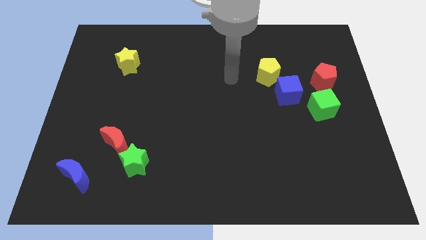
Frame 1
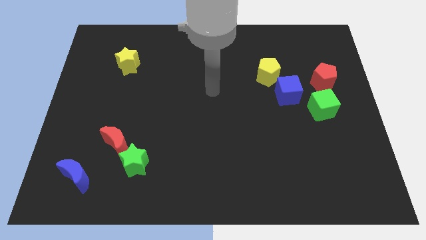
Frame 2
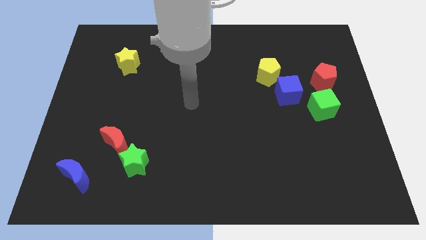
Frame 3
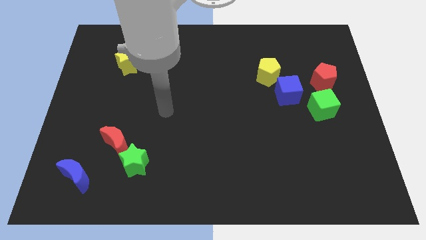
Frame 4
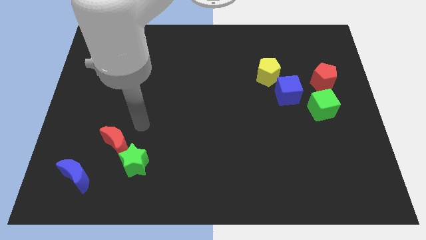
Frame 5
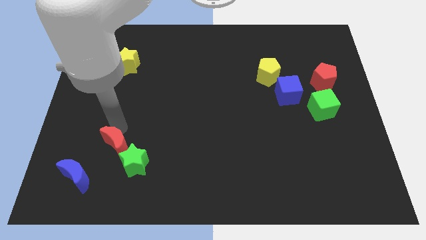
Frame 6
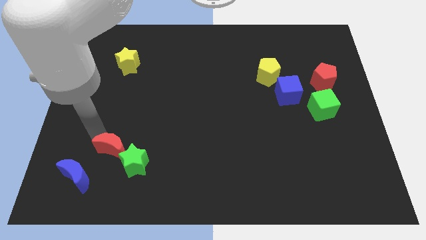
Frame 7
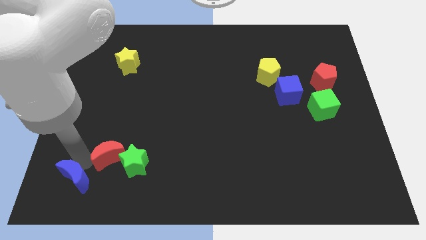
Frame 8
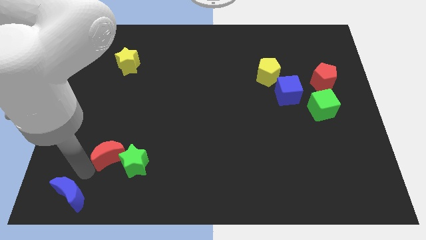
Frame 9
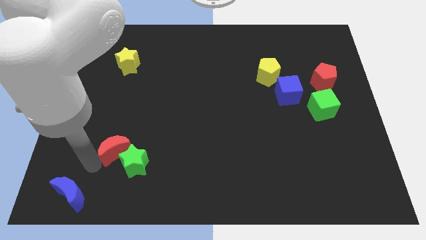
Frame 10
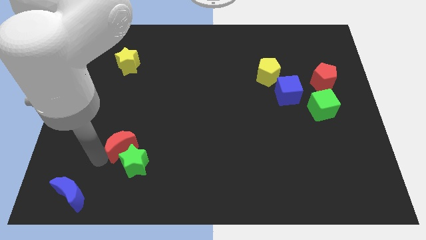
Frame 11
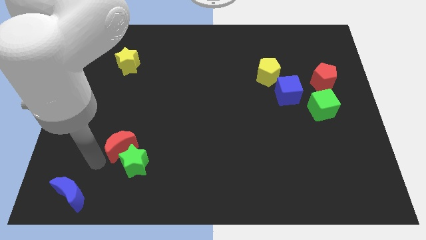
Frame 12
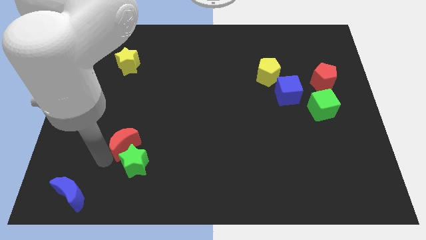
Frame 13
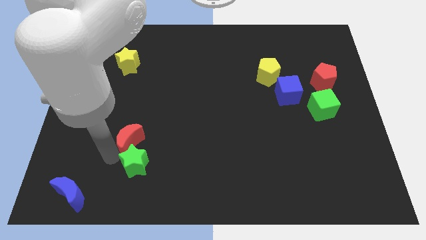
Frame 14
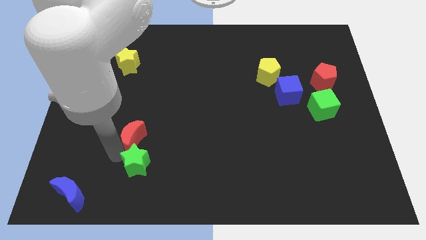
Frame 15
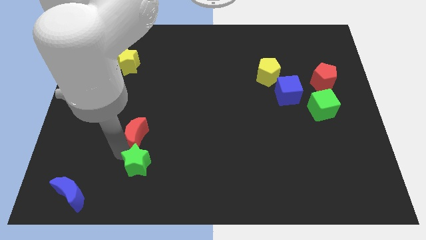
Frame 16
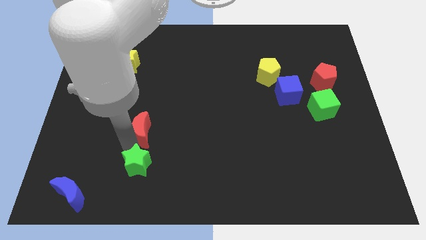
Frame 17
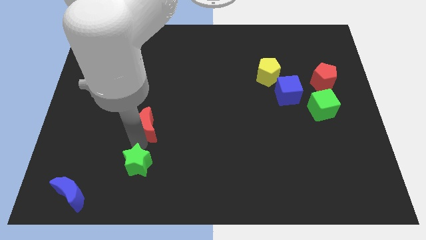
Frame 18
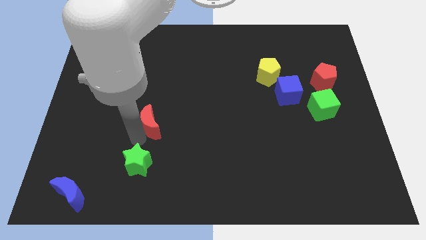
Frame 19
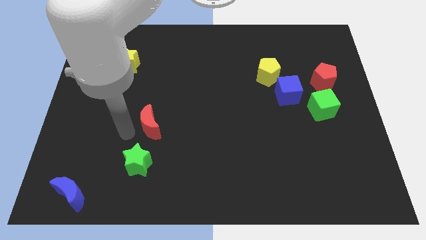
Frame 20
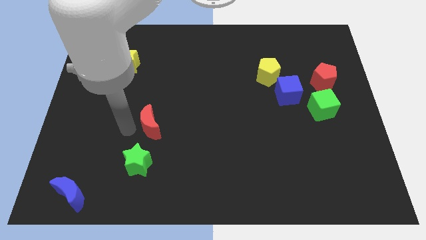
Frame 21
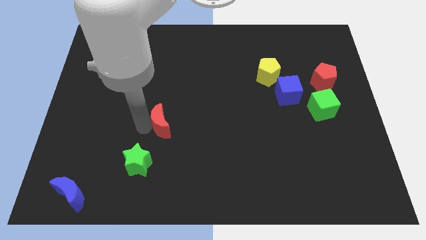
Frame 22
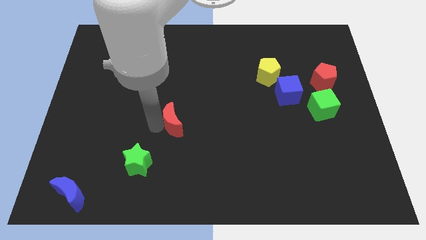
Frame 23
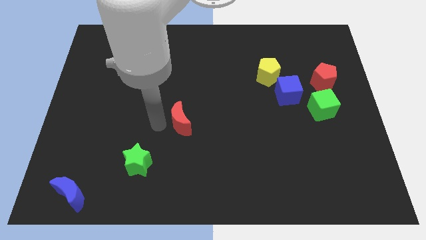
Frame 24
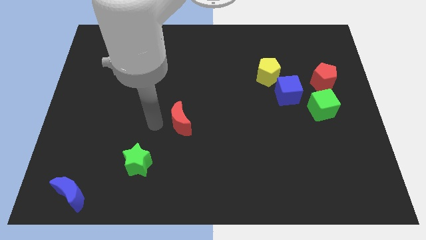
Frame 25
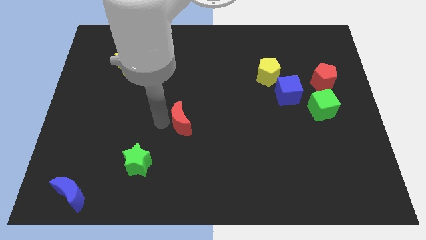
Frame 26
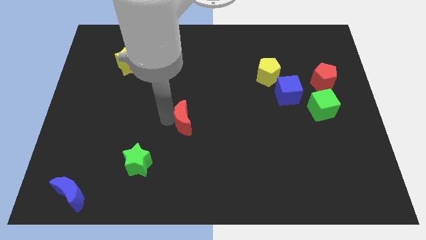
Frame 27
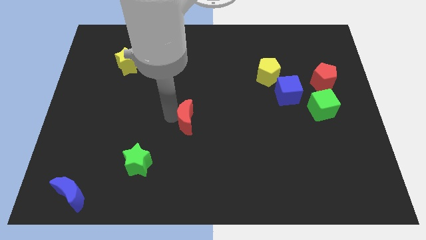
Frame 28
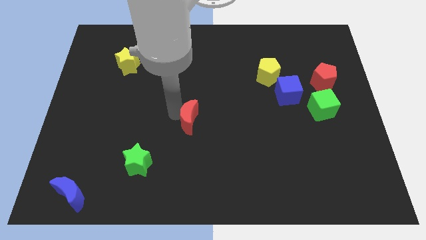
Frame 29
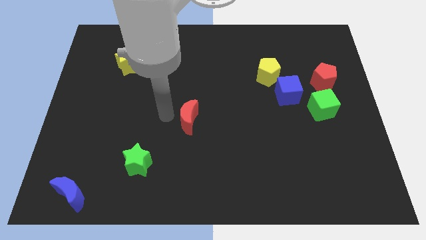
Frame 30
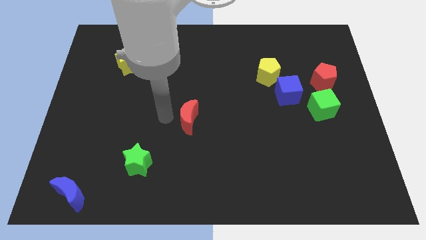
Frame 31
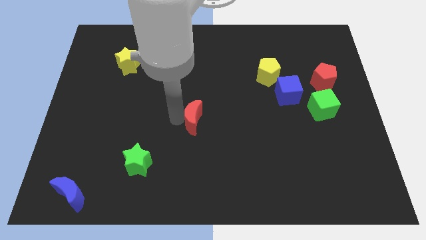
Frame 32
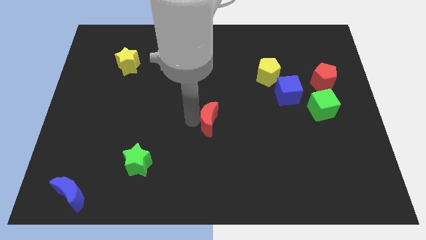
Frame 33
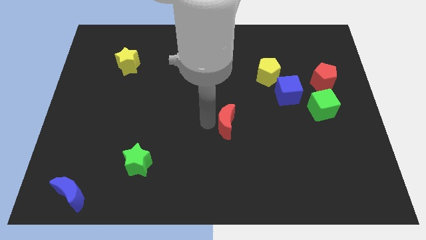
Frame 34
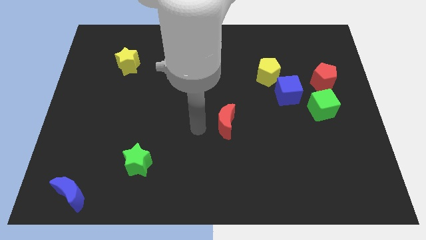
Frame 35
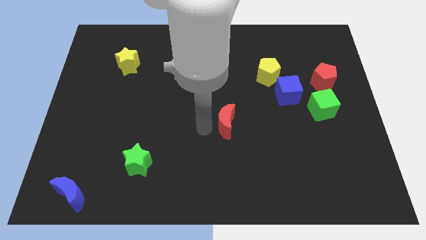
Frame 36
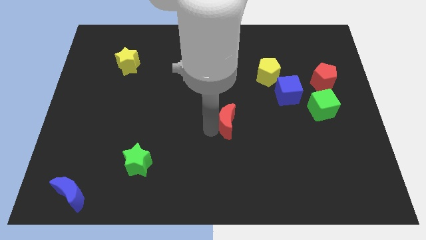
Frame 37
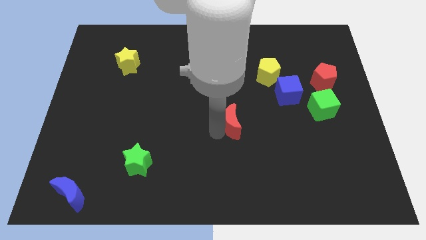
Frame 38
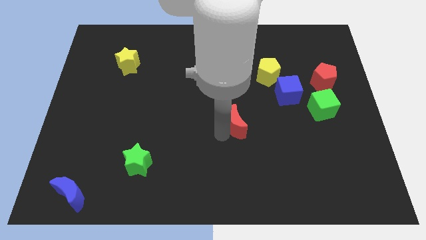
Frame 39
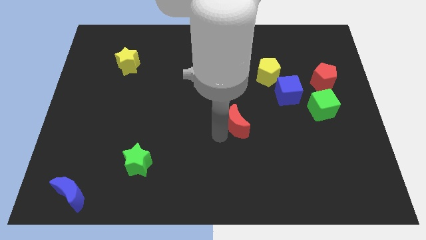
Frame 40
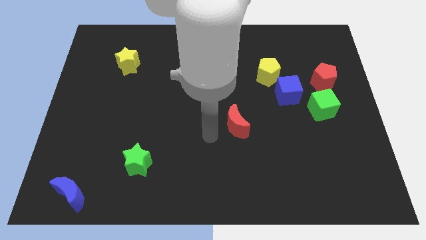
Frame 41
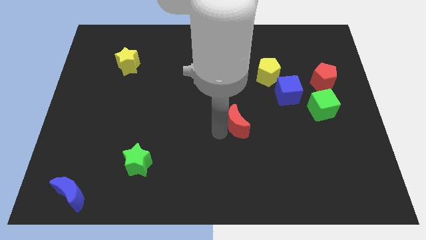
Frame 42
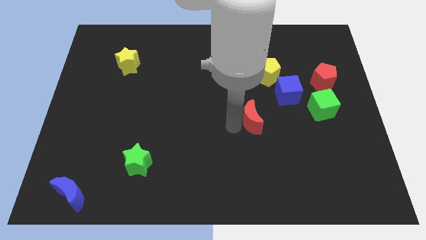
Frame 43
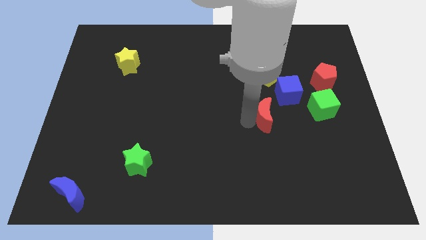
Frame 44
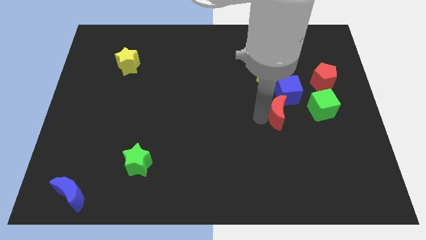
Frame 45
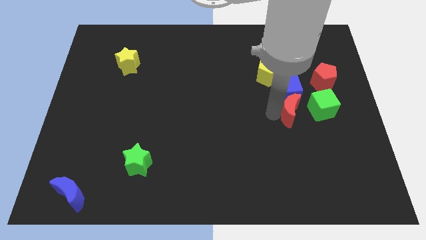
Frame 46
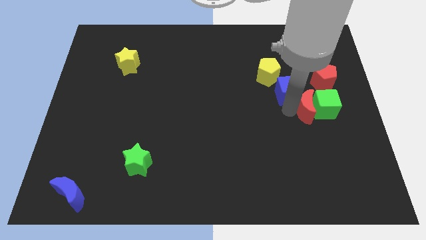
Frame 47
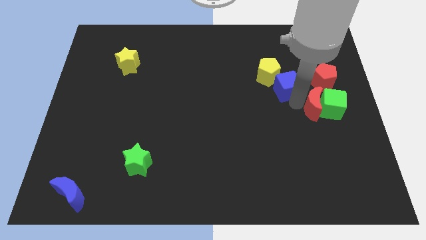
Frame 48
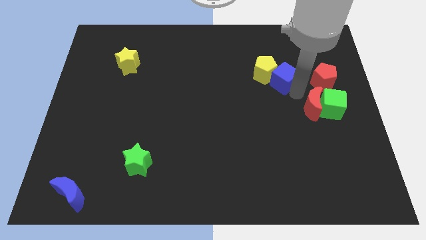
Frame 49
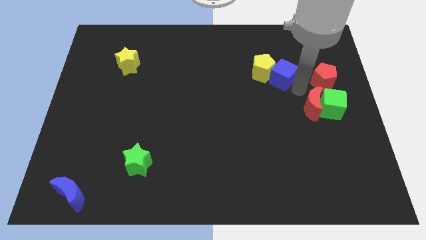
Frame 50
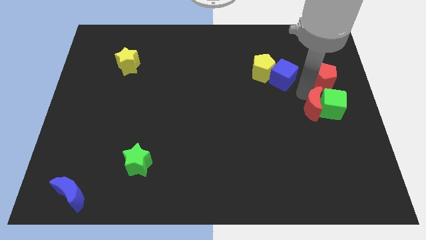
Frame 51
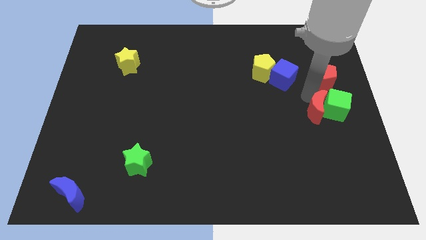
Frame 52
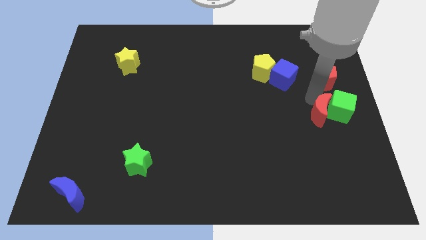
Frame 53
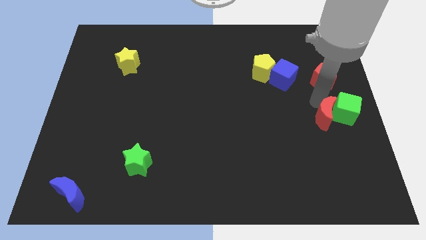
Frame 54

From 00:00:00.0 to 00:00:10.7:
move the red moon to the center right

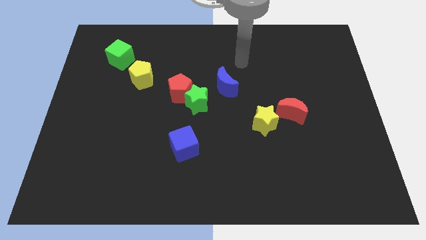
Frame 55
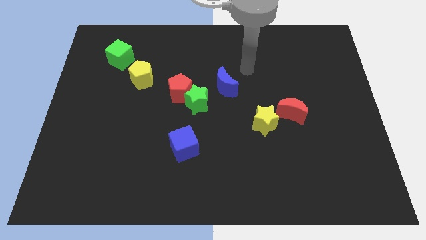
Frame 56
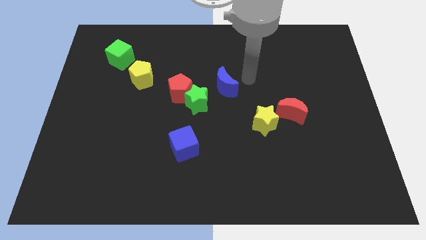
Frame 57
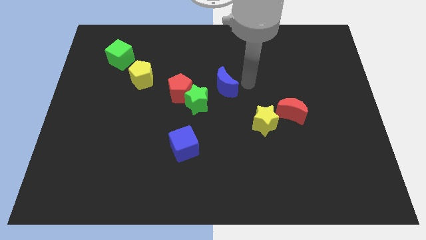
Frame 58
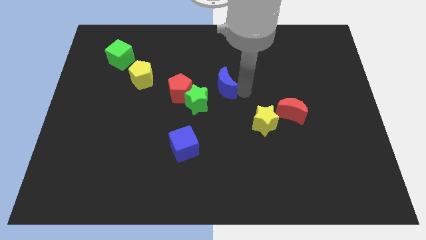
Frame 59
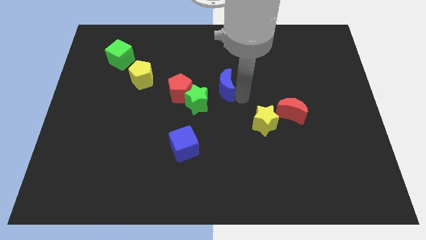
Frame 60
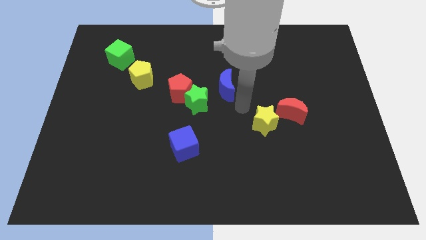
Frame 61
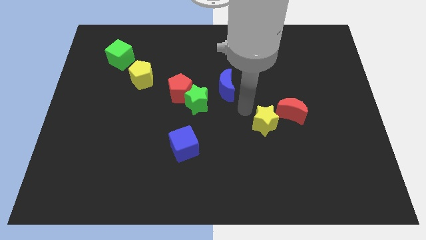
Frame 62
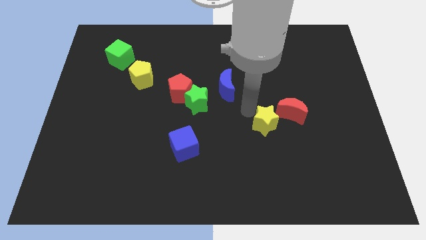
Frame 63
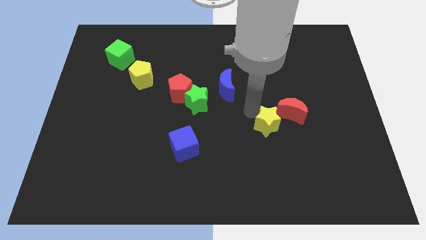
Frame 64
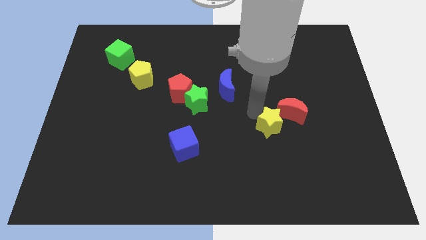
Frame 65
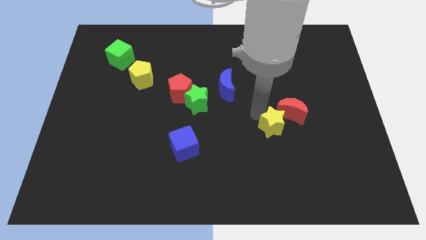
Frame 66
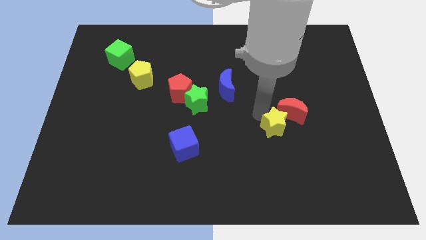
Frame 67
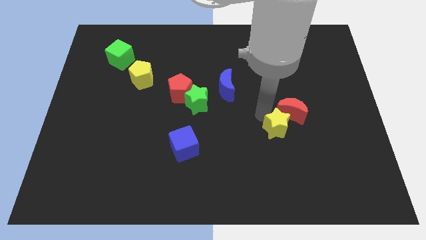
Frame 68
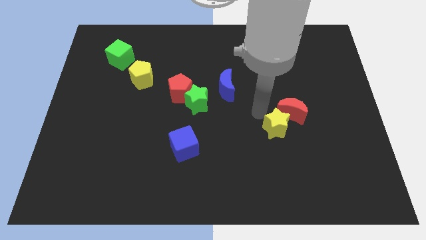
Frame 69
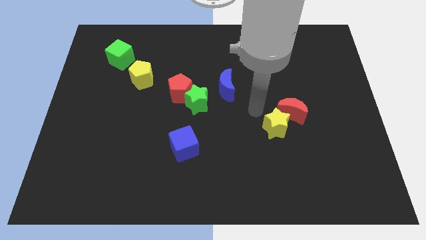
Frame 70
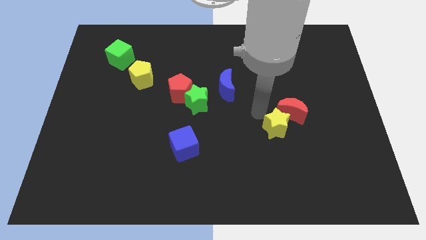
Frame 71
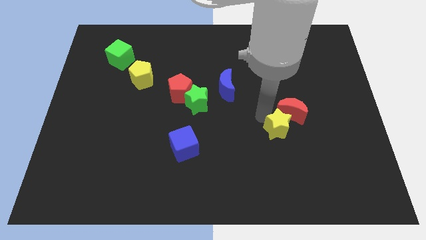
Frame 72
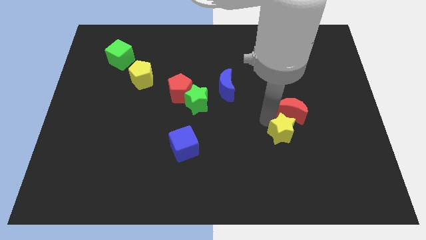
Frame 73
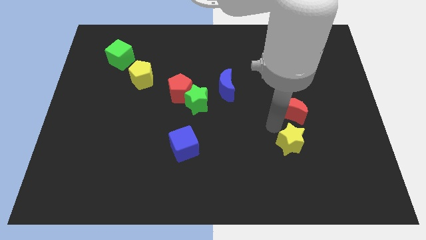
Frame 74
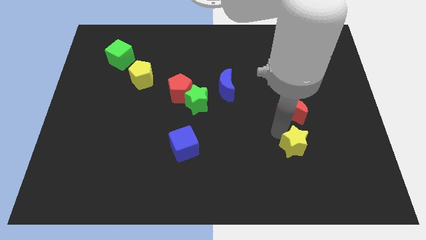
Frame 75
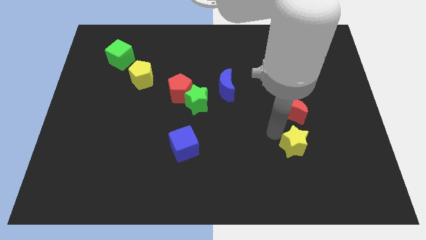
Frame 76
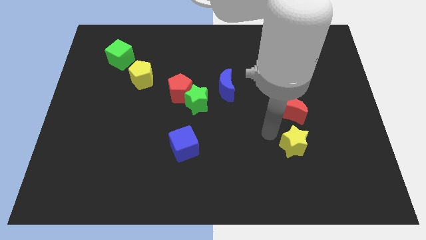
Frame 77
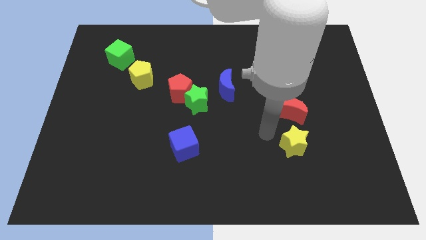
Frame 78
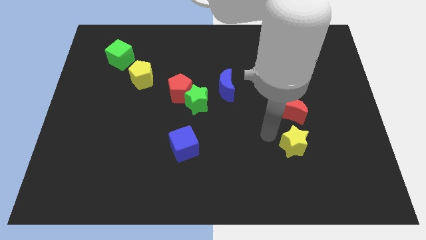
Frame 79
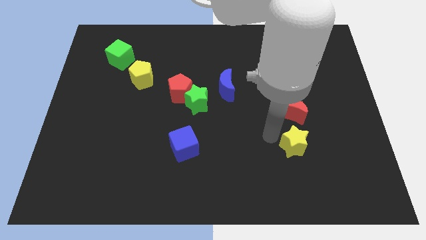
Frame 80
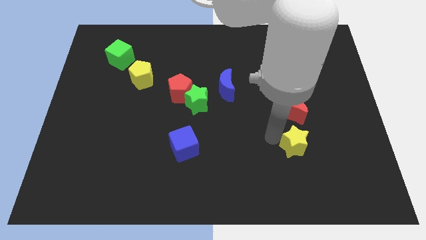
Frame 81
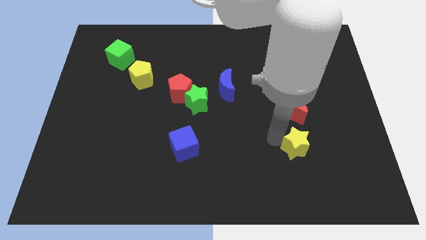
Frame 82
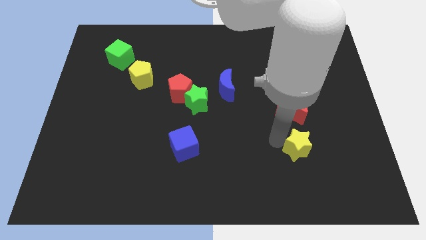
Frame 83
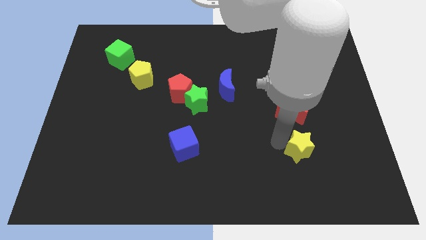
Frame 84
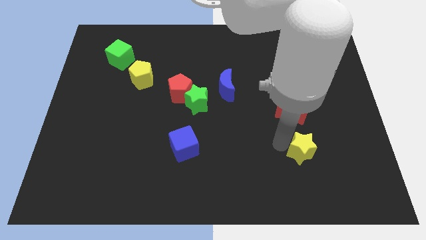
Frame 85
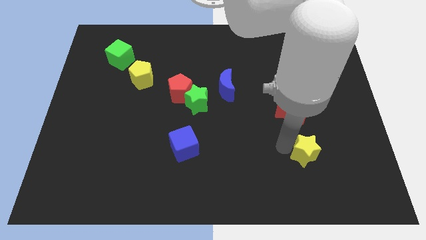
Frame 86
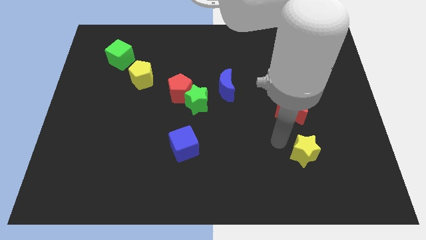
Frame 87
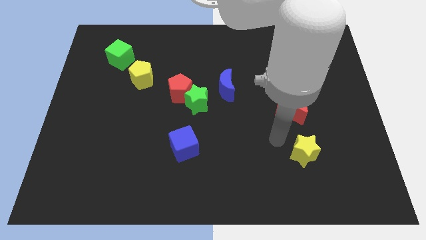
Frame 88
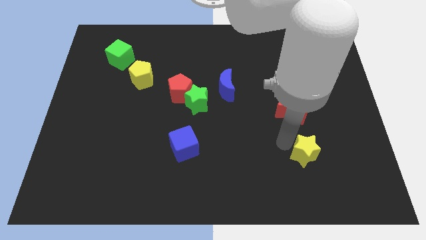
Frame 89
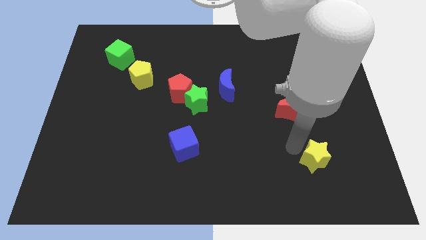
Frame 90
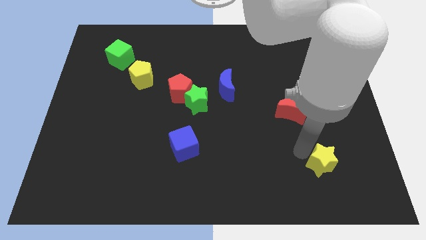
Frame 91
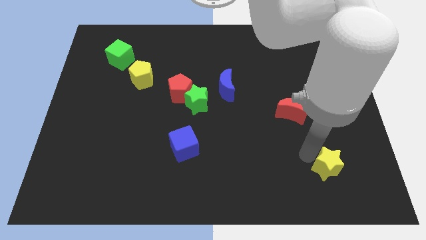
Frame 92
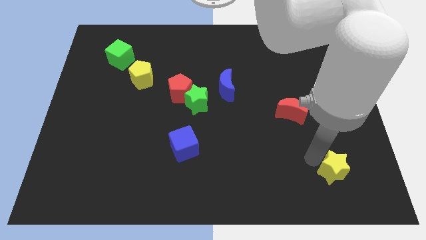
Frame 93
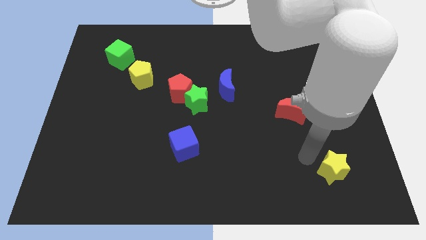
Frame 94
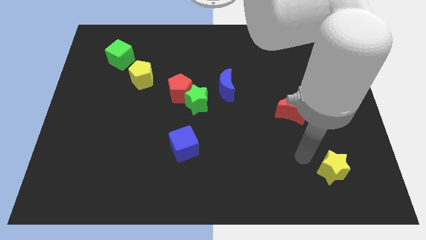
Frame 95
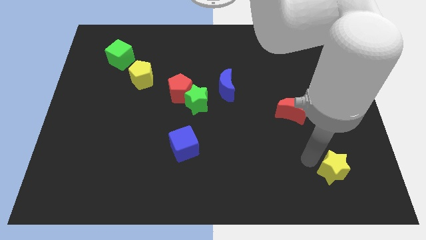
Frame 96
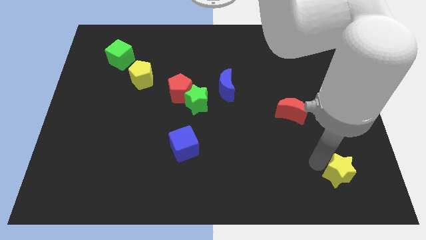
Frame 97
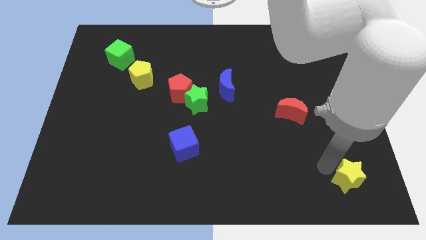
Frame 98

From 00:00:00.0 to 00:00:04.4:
slide the yellow star to the bottom right
